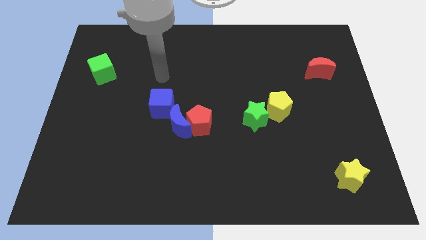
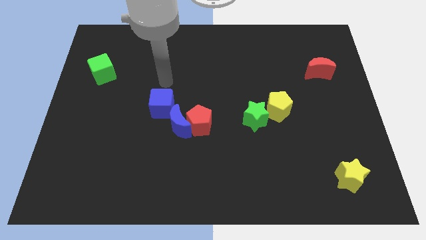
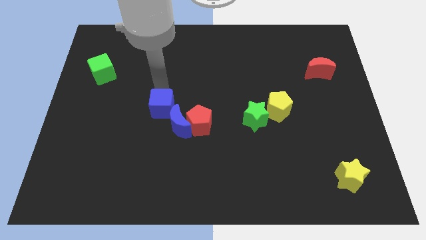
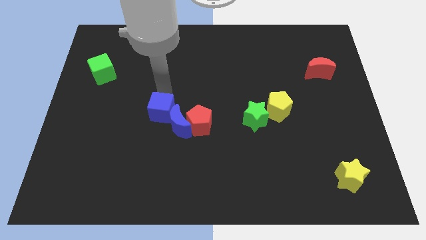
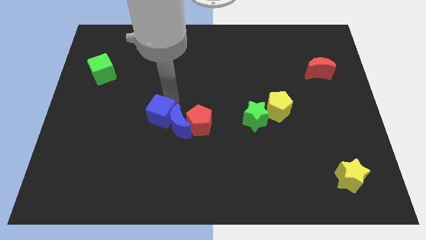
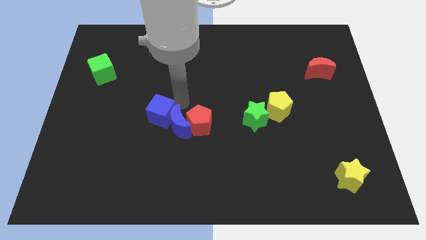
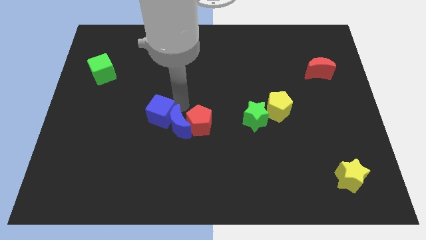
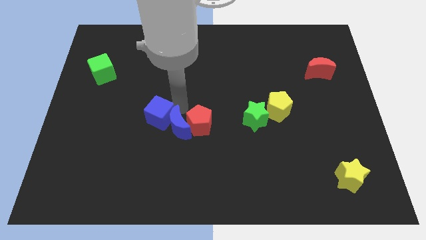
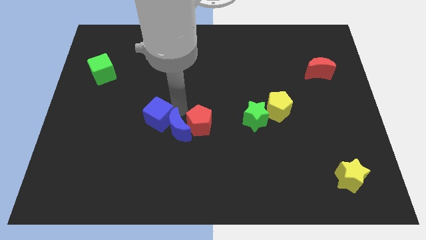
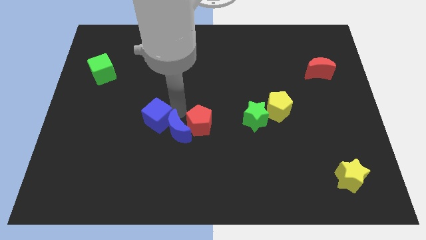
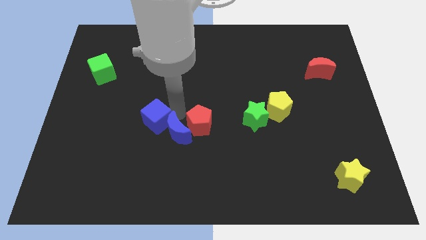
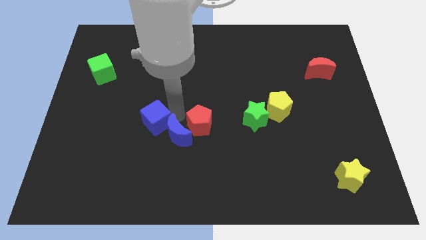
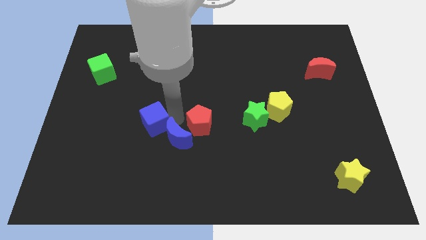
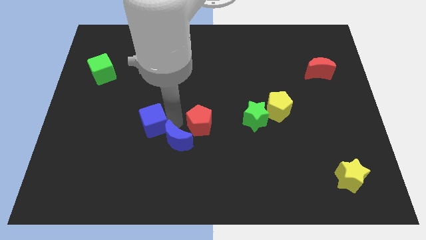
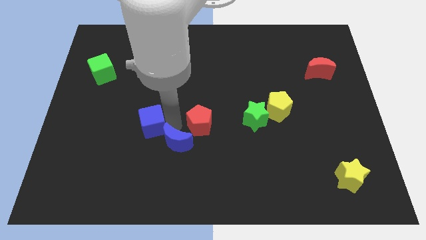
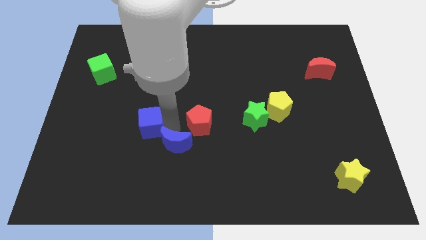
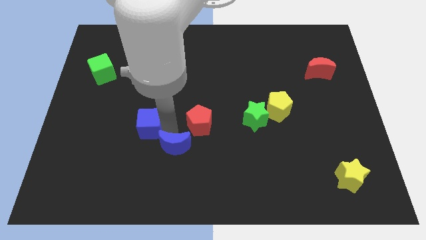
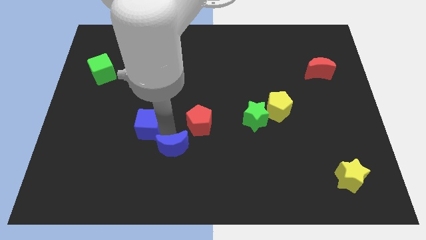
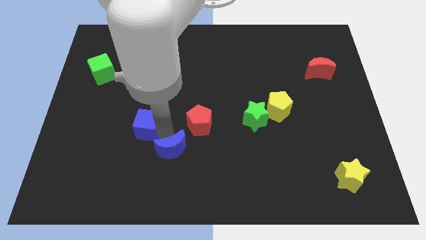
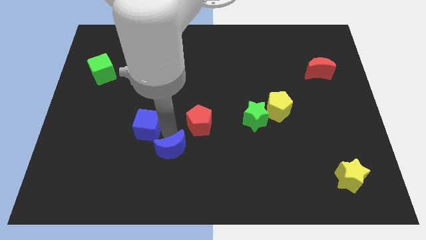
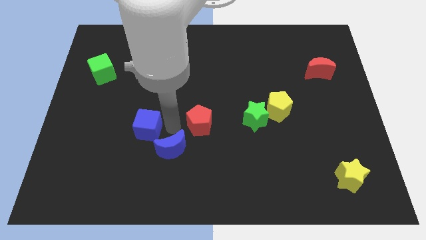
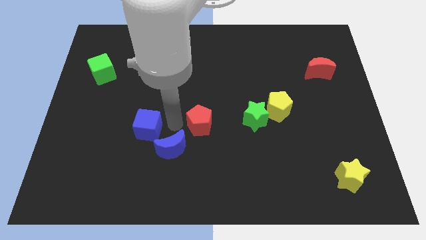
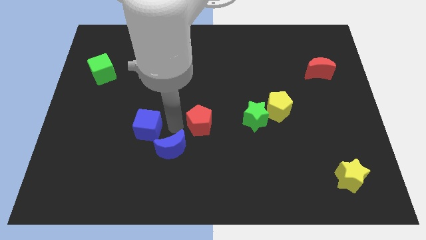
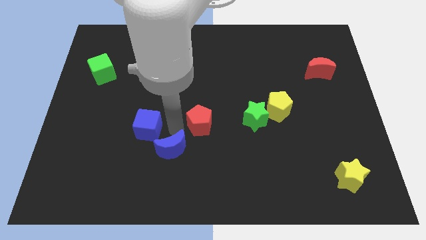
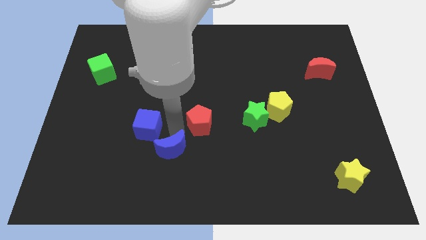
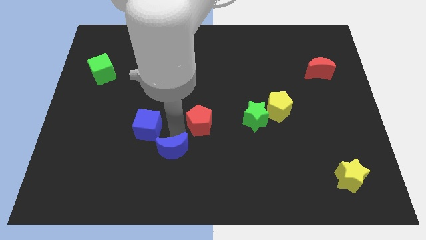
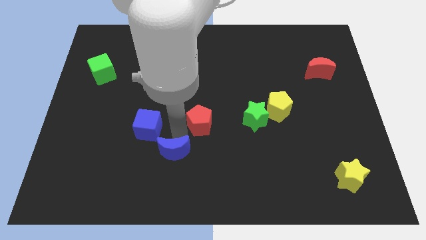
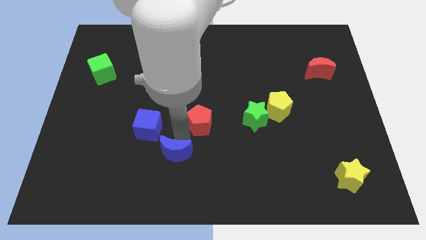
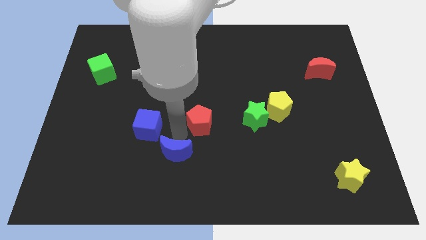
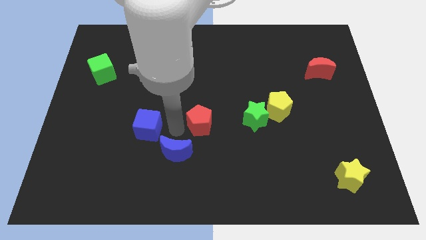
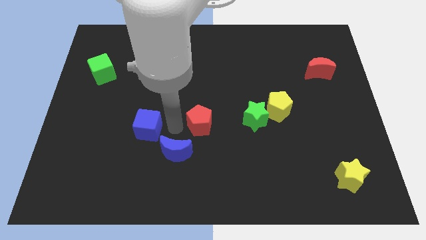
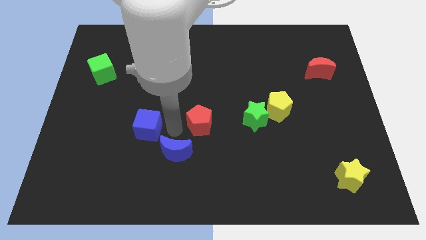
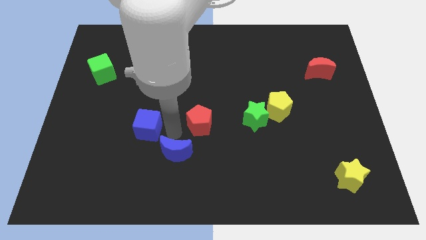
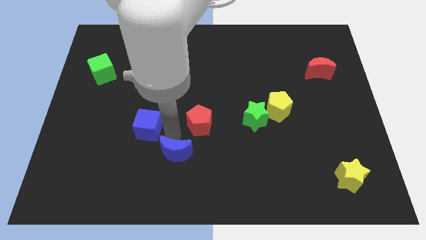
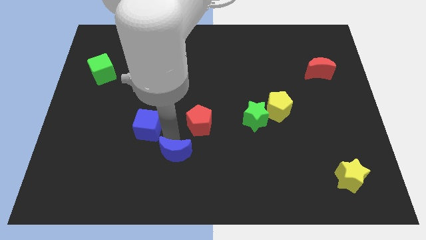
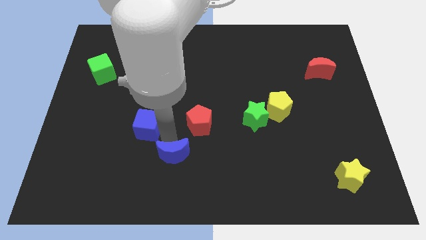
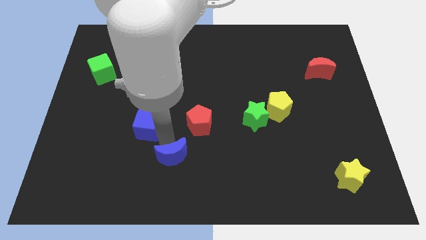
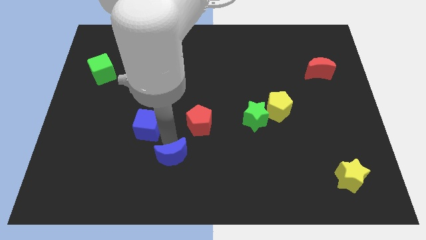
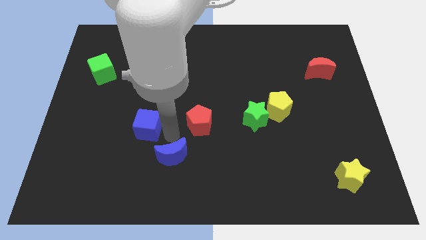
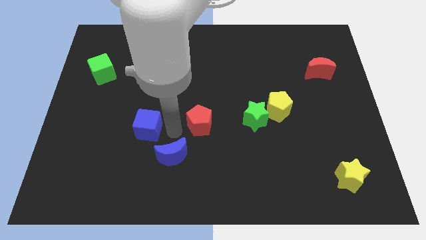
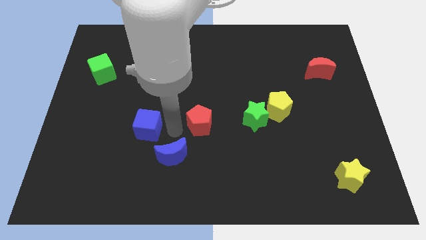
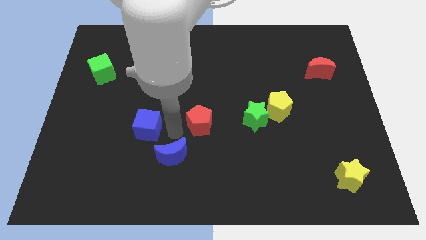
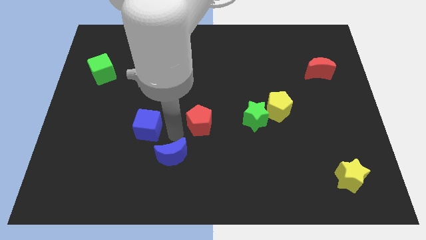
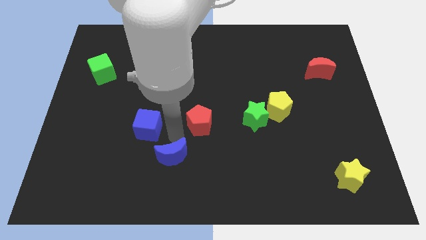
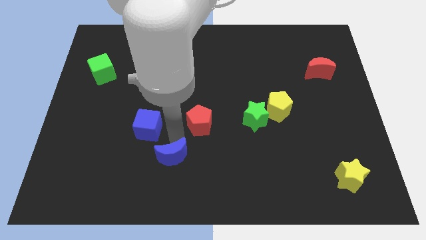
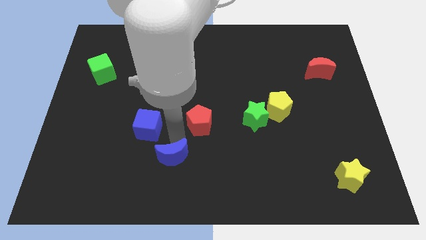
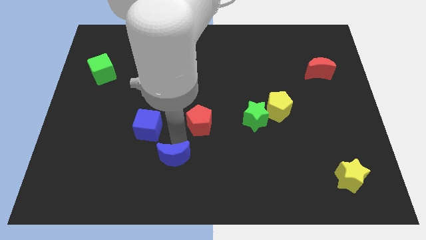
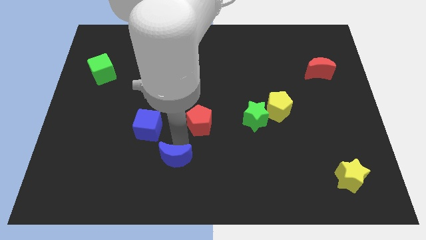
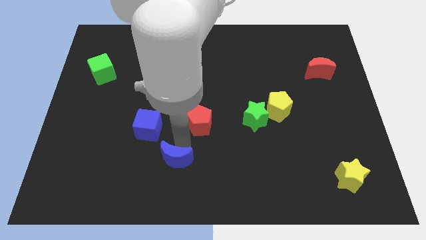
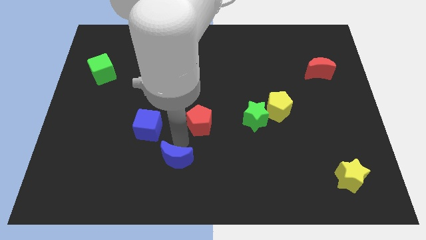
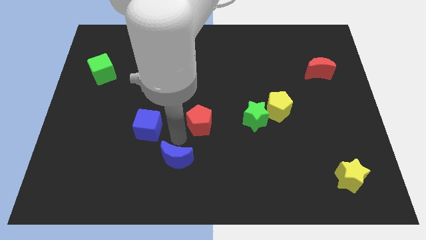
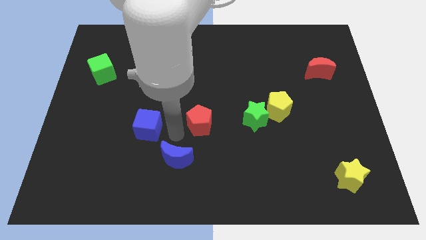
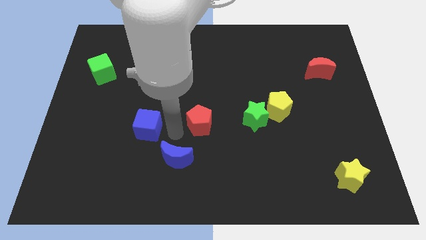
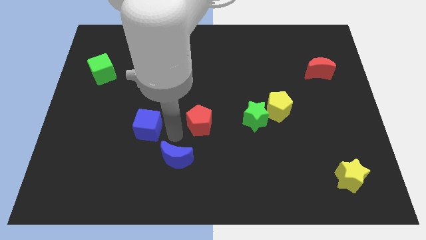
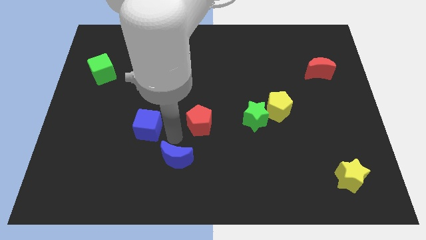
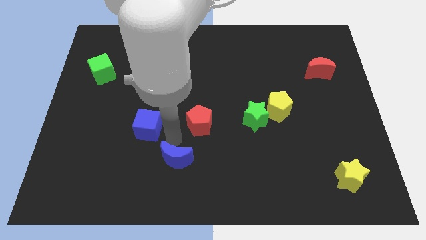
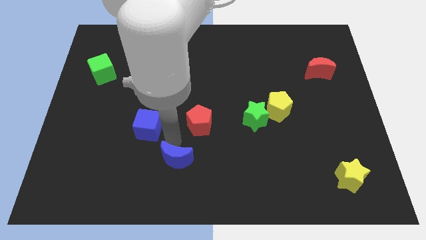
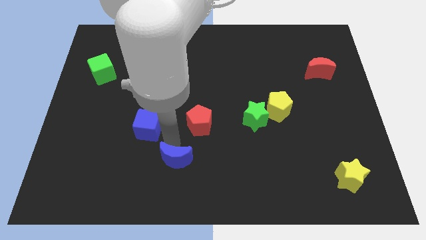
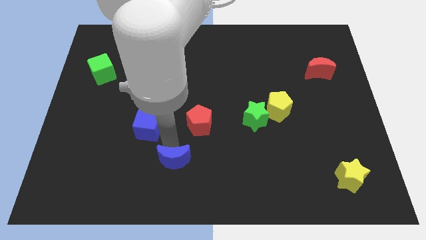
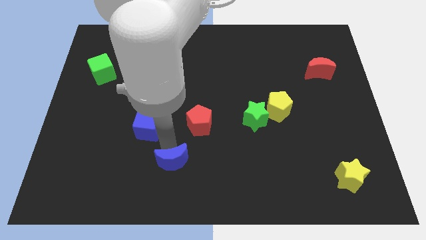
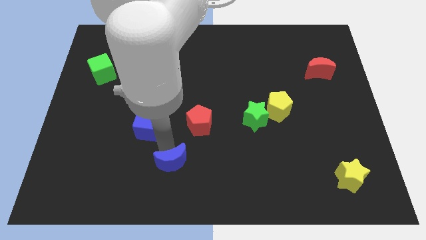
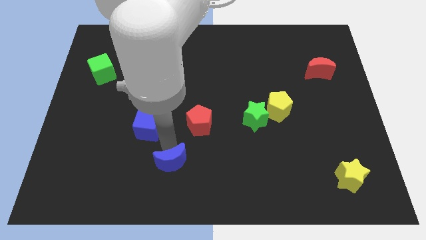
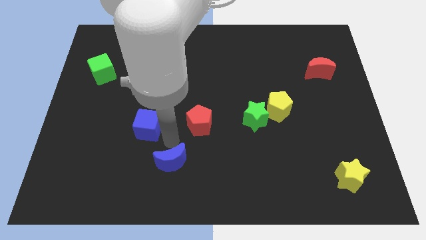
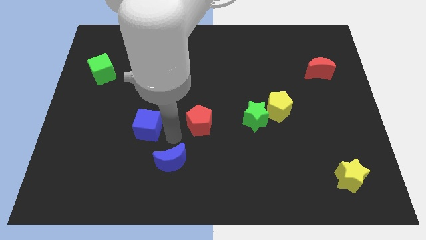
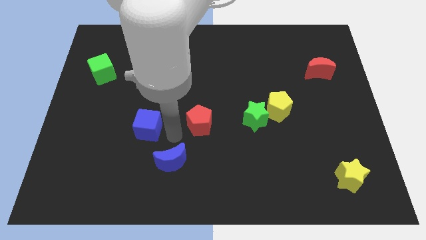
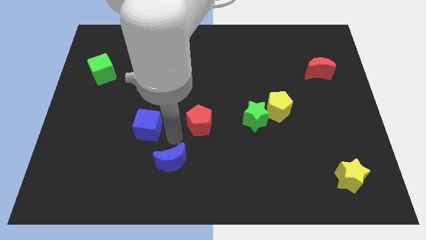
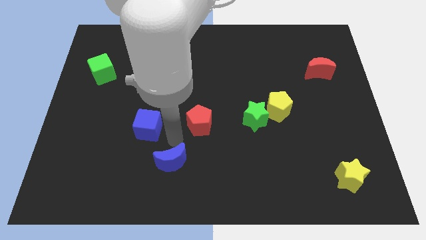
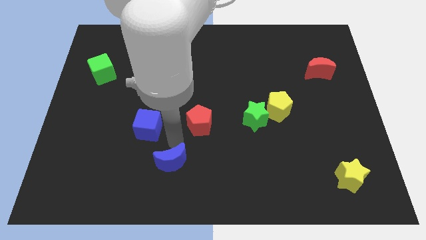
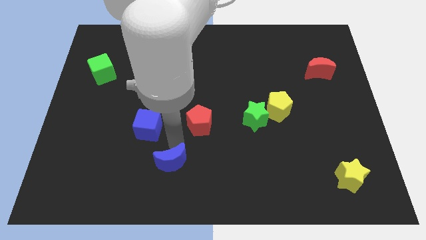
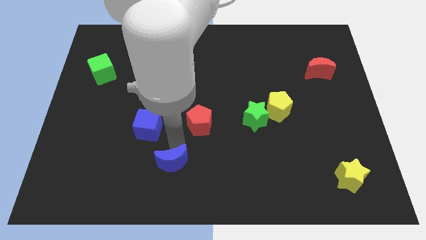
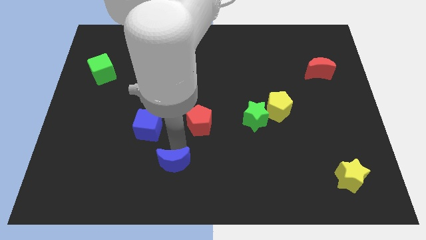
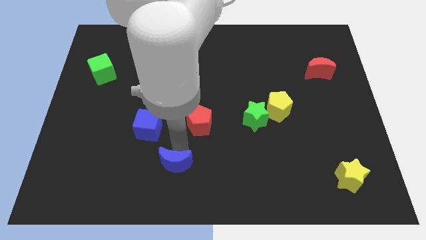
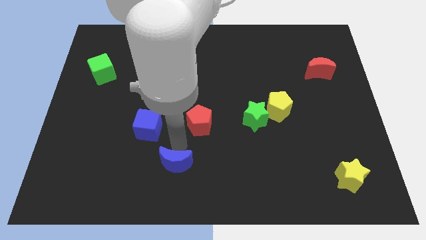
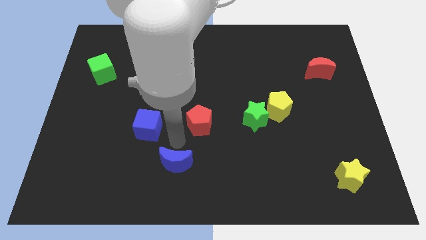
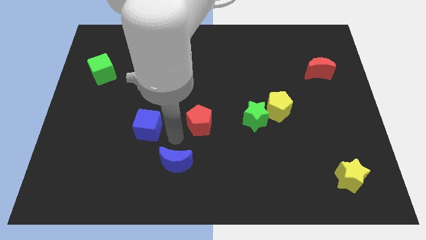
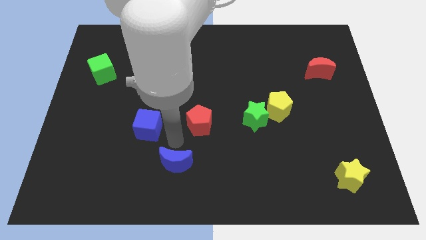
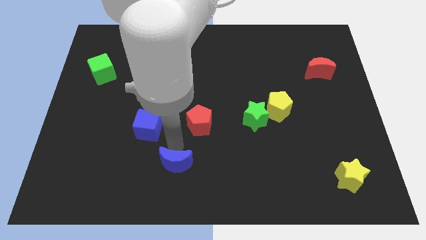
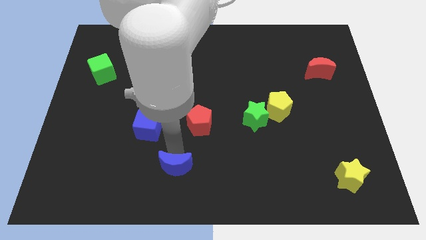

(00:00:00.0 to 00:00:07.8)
move the blue moon away from the red pentagon and blue cube

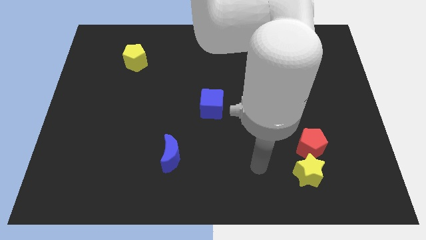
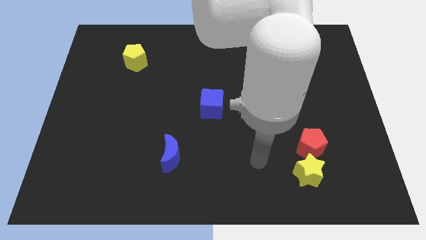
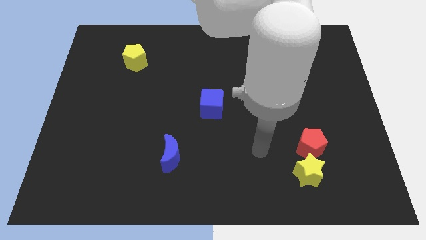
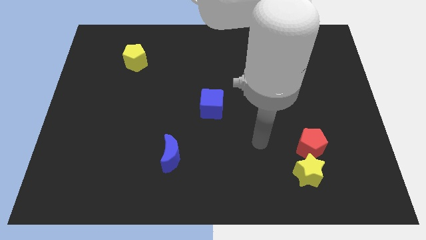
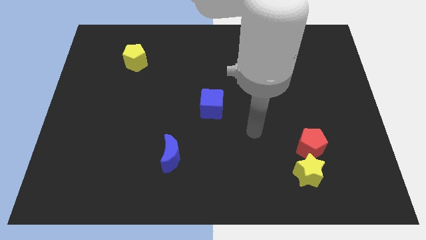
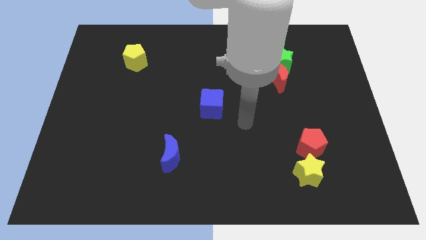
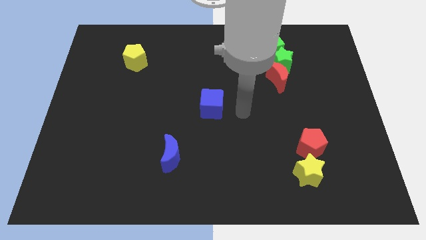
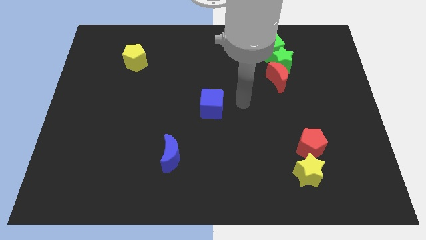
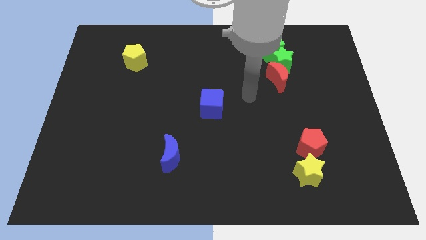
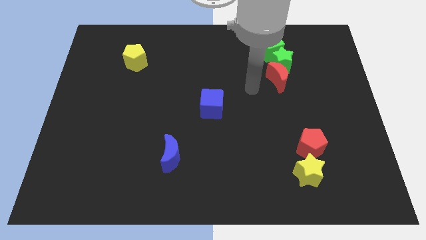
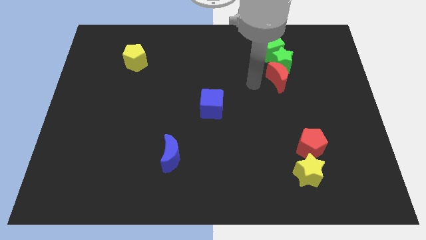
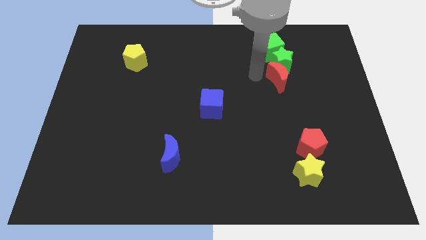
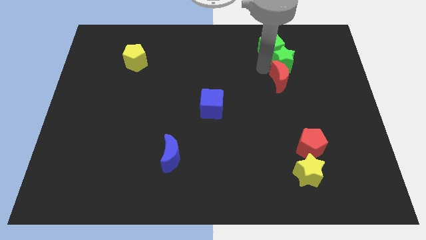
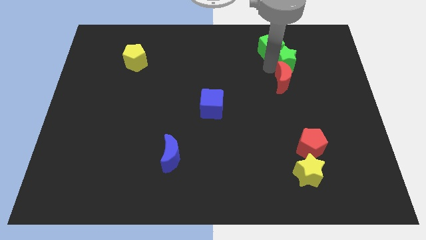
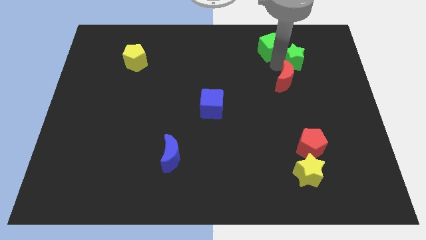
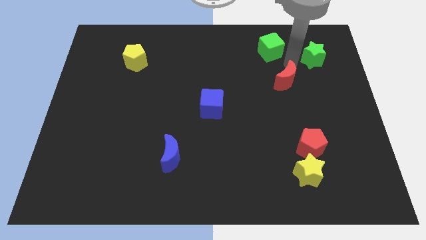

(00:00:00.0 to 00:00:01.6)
separate the red moon from the green star
